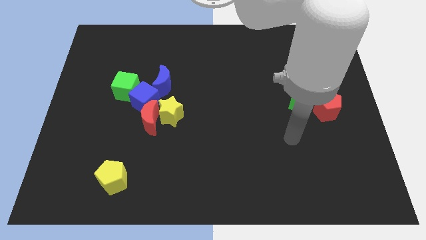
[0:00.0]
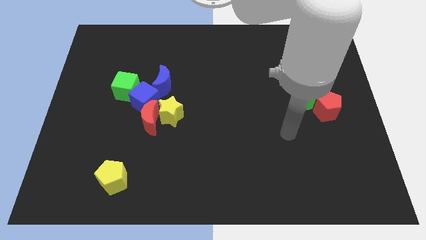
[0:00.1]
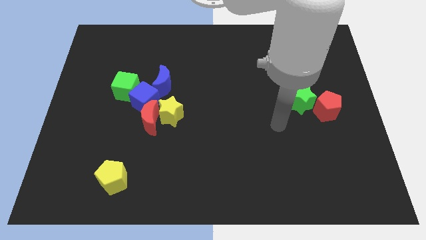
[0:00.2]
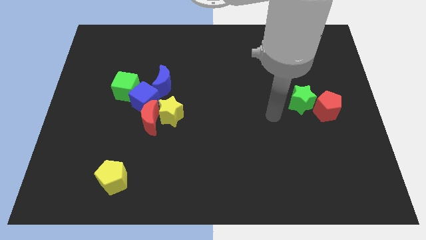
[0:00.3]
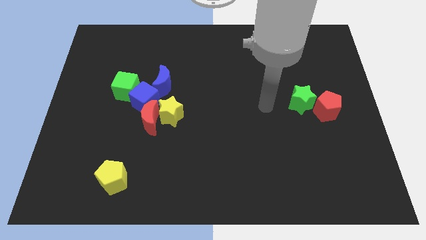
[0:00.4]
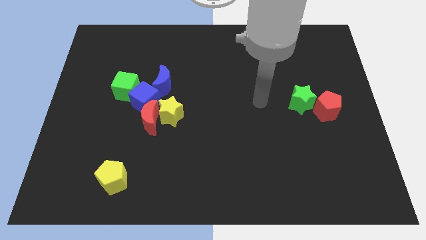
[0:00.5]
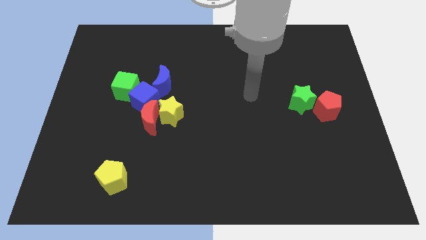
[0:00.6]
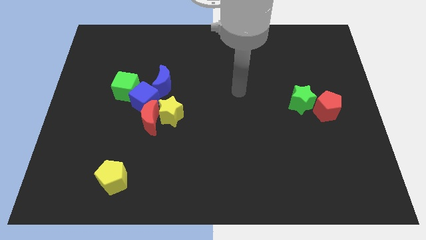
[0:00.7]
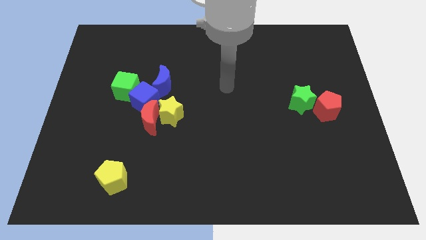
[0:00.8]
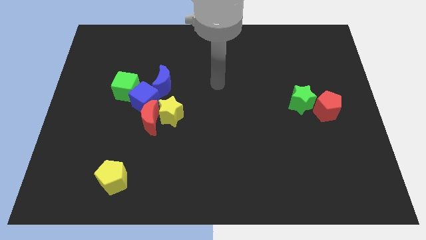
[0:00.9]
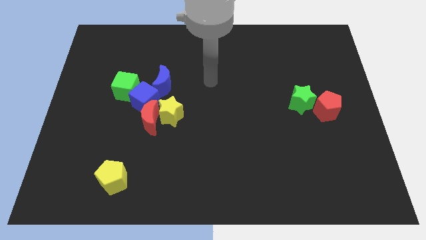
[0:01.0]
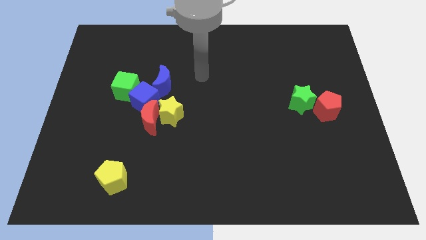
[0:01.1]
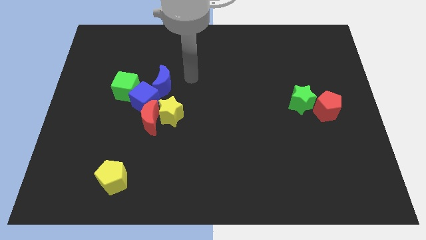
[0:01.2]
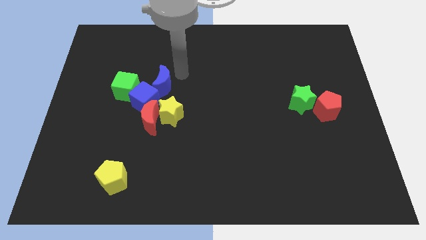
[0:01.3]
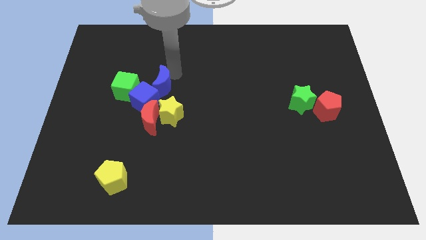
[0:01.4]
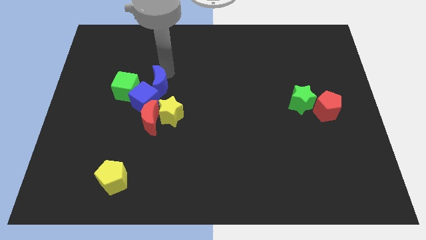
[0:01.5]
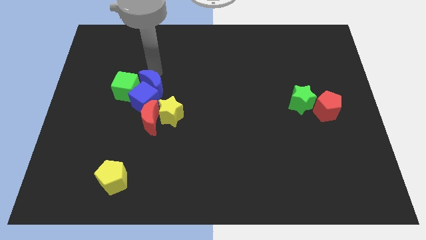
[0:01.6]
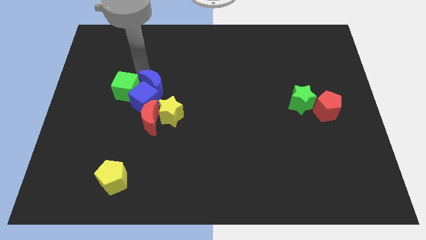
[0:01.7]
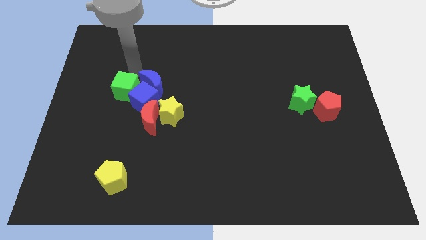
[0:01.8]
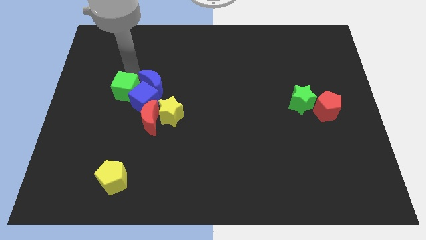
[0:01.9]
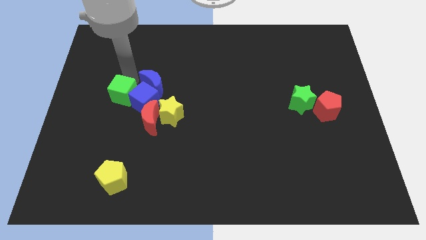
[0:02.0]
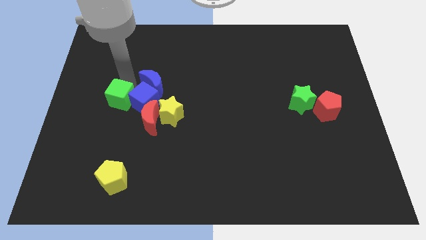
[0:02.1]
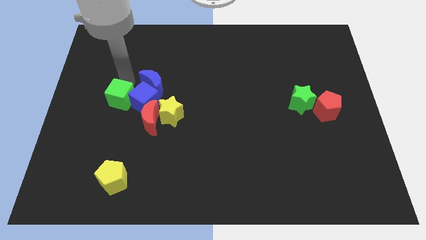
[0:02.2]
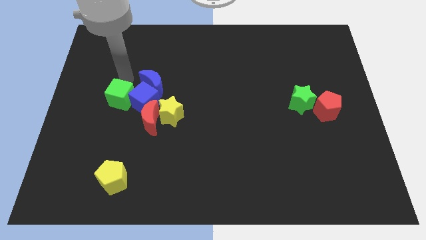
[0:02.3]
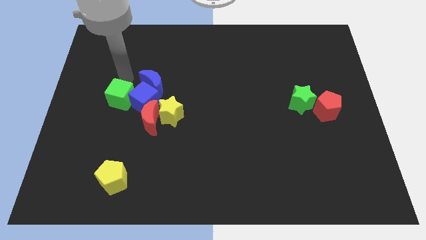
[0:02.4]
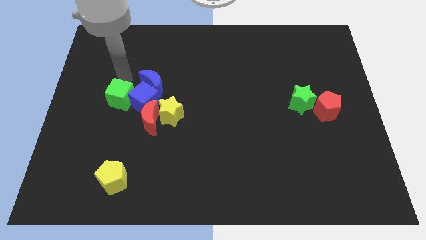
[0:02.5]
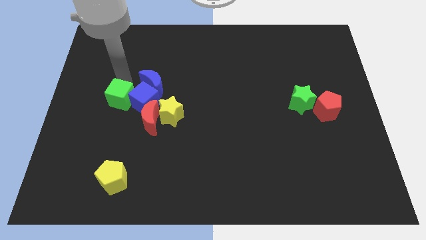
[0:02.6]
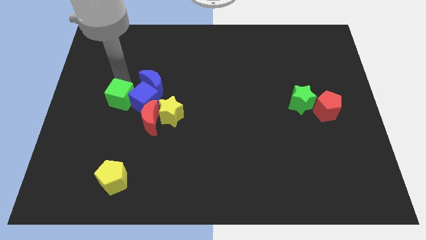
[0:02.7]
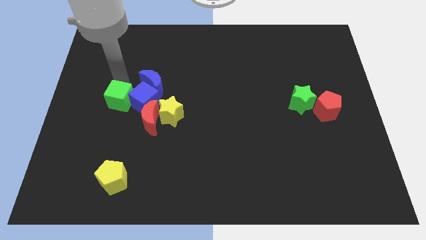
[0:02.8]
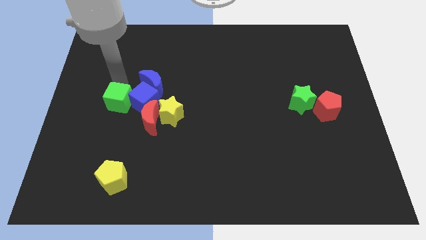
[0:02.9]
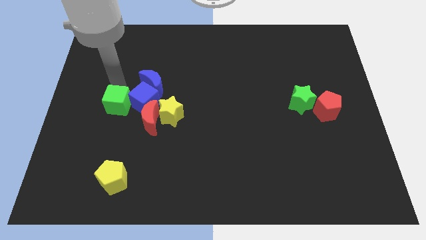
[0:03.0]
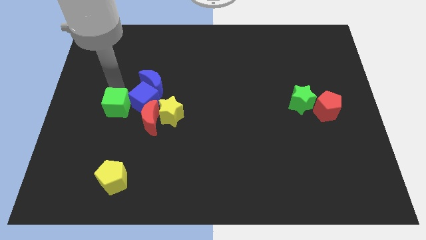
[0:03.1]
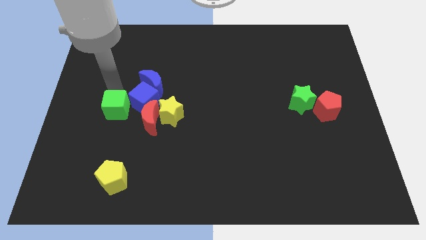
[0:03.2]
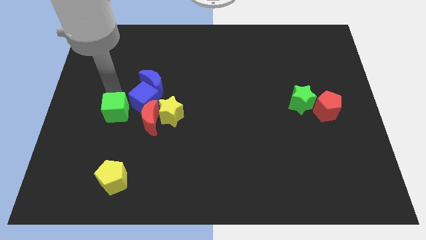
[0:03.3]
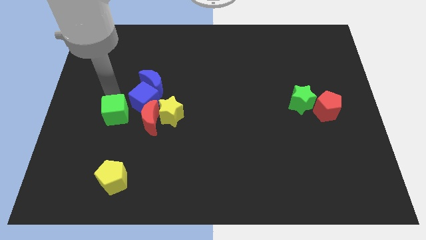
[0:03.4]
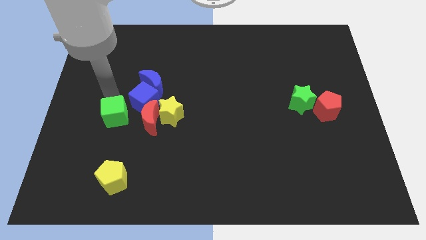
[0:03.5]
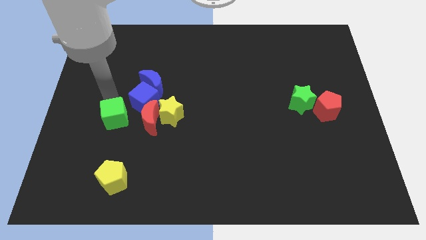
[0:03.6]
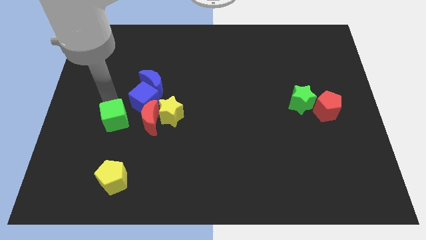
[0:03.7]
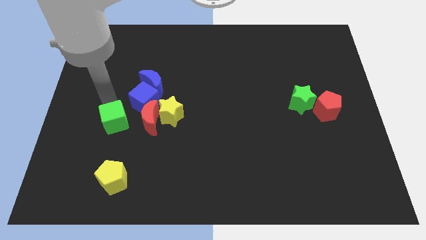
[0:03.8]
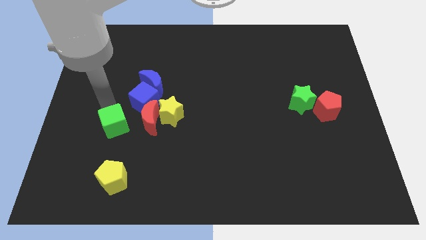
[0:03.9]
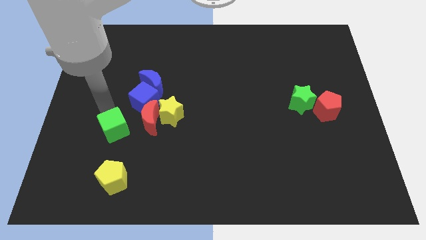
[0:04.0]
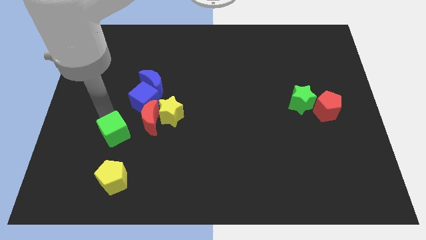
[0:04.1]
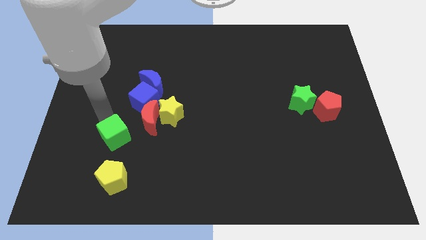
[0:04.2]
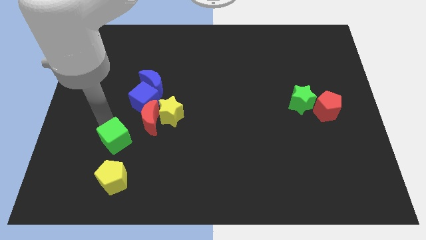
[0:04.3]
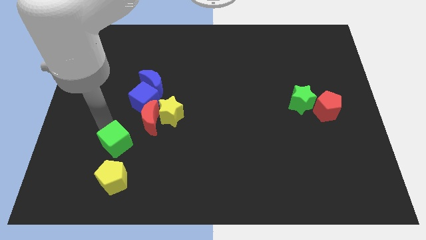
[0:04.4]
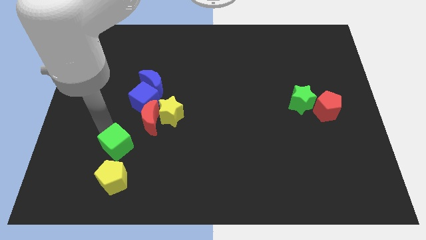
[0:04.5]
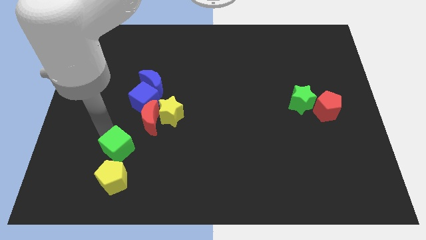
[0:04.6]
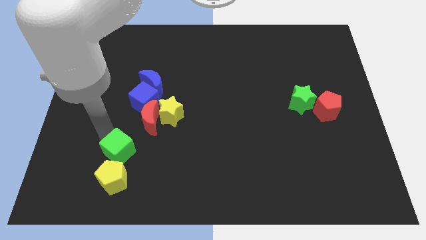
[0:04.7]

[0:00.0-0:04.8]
slide the green cube to the top right side of the yellow pentagon

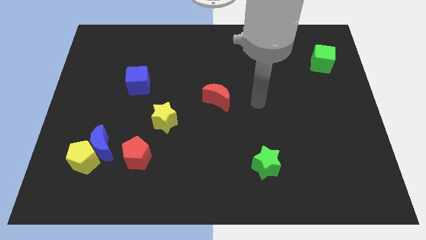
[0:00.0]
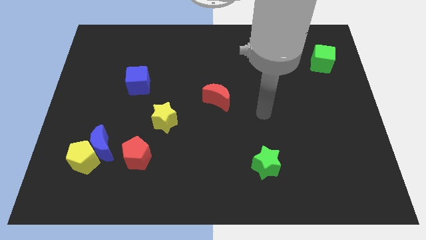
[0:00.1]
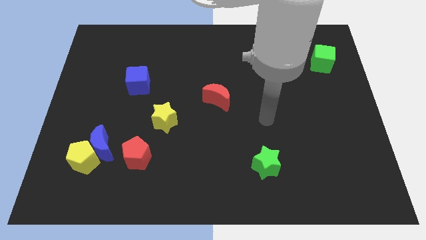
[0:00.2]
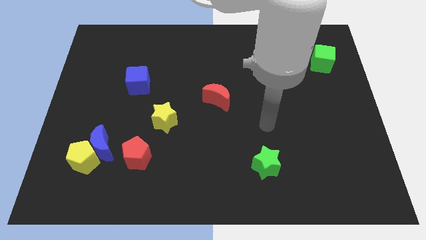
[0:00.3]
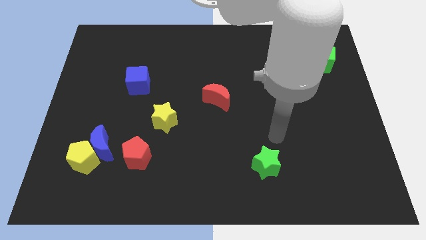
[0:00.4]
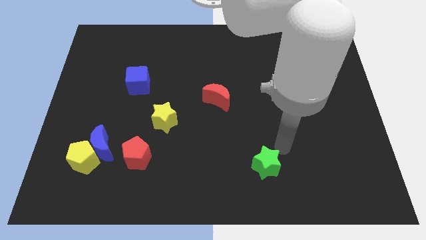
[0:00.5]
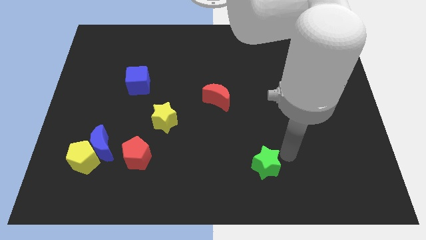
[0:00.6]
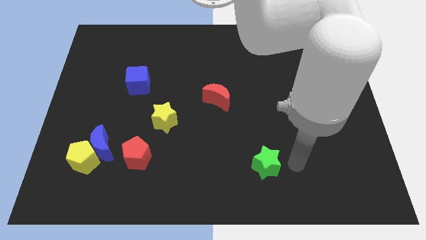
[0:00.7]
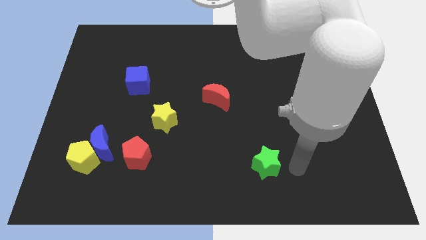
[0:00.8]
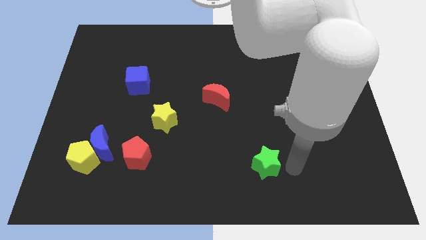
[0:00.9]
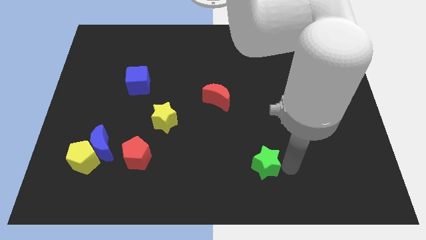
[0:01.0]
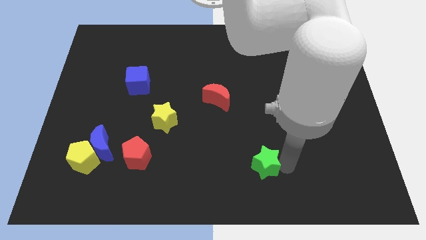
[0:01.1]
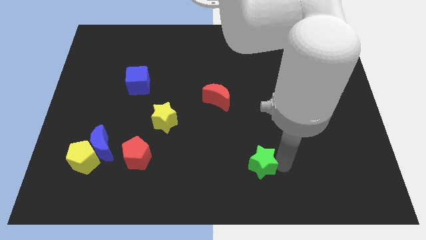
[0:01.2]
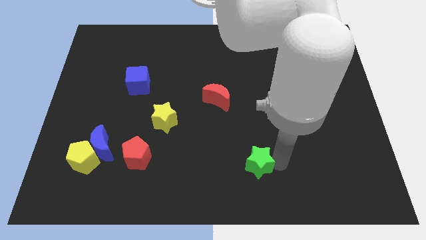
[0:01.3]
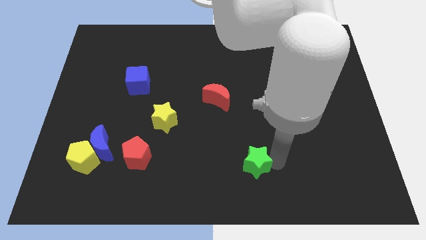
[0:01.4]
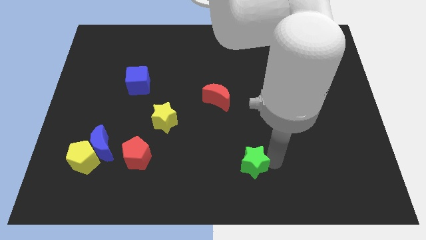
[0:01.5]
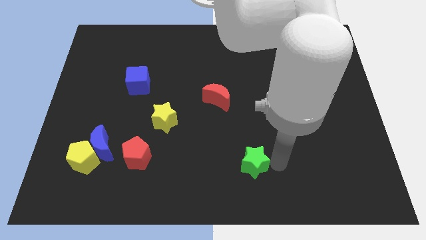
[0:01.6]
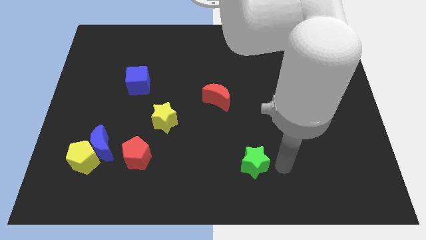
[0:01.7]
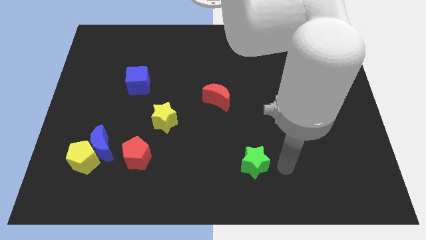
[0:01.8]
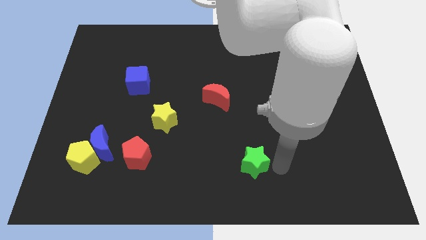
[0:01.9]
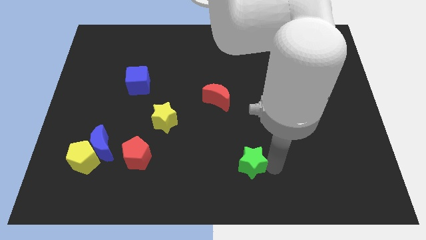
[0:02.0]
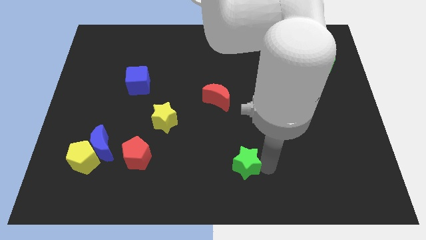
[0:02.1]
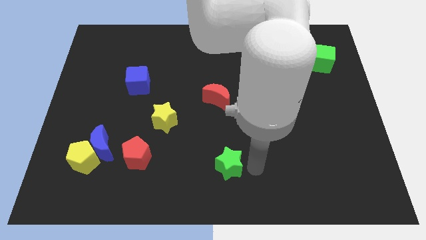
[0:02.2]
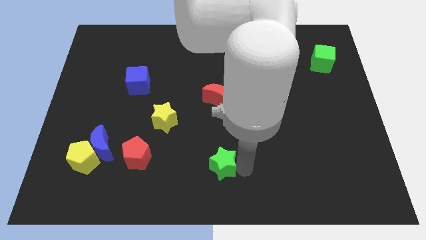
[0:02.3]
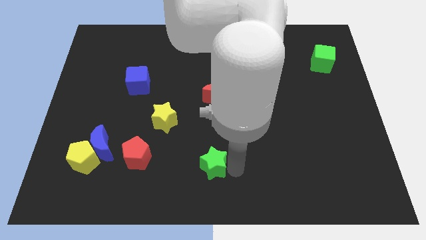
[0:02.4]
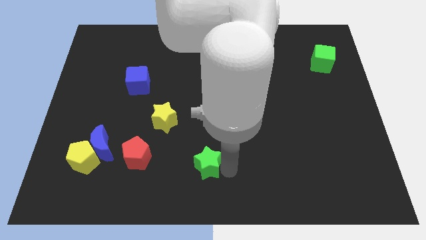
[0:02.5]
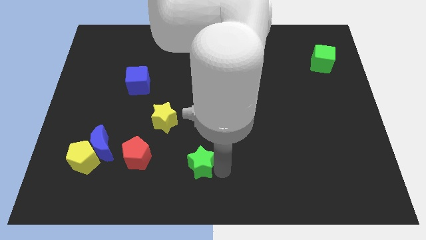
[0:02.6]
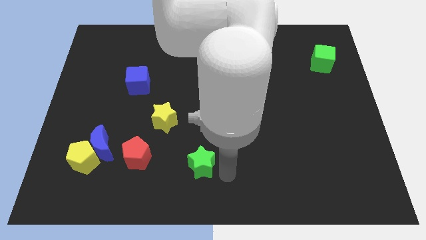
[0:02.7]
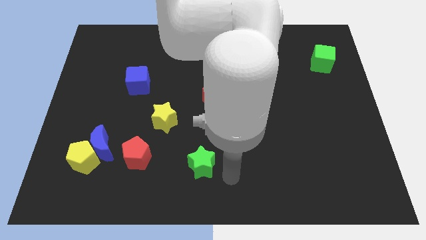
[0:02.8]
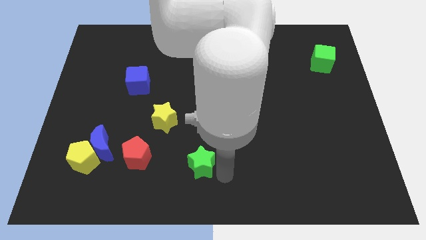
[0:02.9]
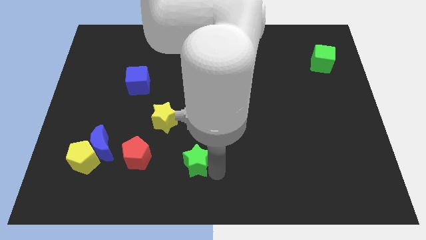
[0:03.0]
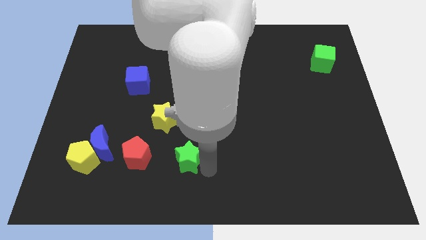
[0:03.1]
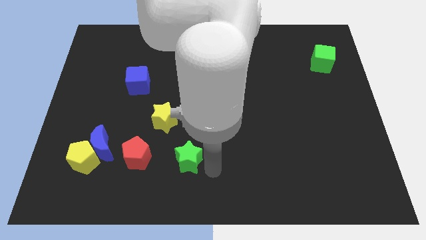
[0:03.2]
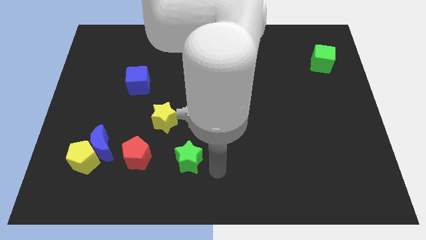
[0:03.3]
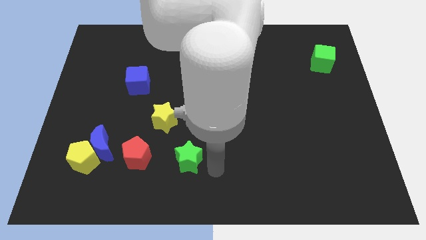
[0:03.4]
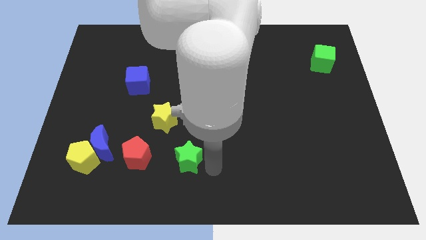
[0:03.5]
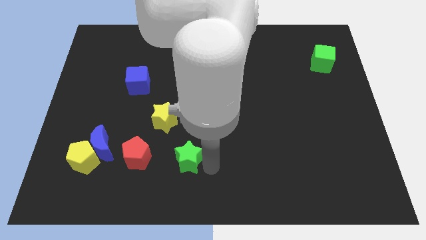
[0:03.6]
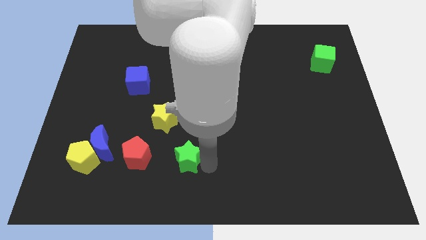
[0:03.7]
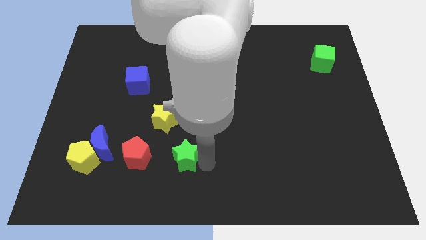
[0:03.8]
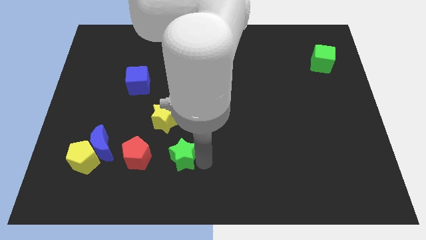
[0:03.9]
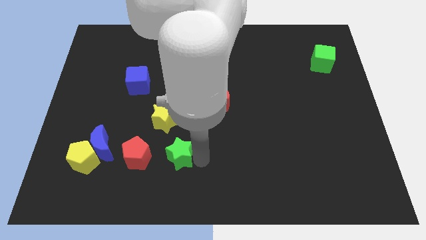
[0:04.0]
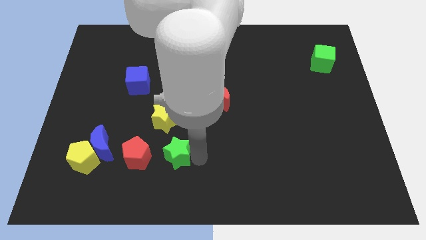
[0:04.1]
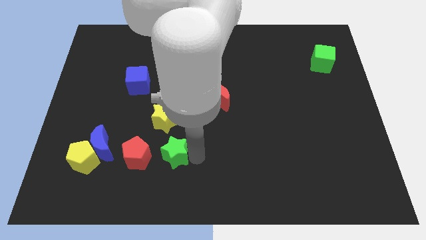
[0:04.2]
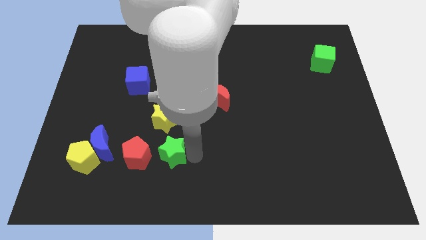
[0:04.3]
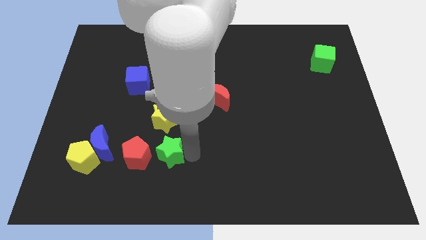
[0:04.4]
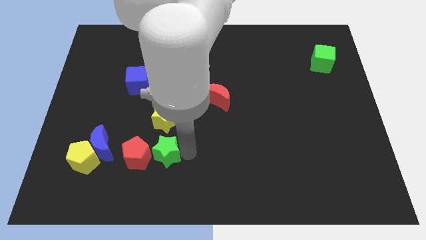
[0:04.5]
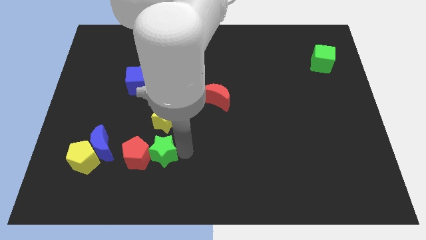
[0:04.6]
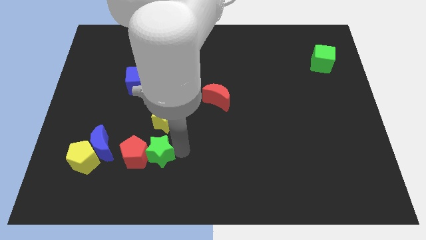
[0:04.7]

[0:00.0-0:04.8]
put the green star just right of the yellow pentagon
